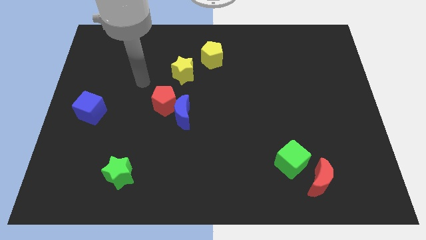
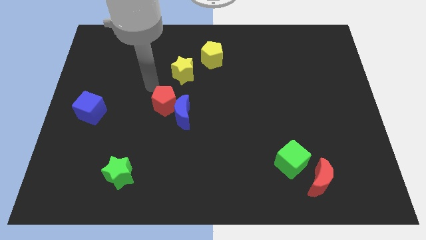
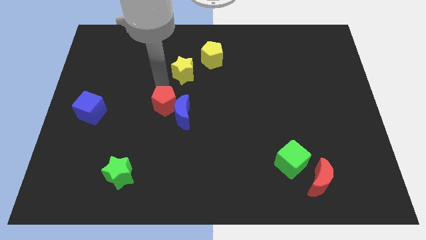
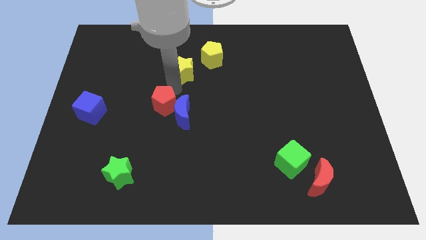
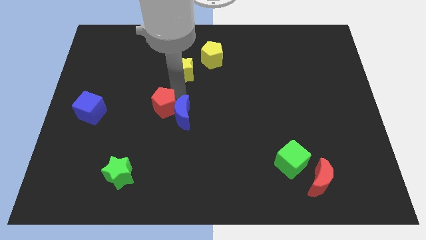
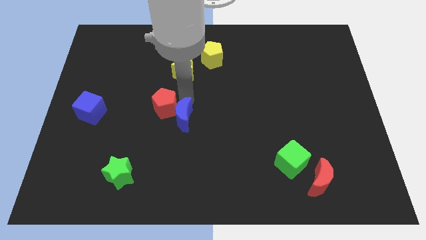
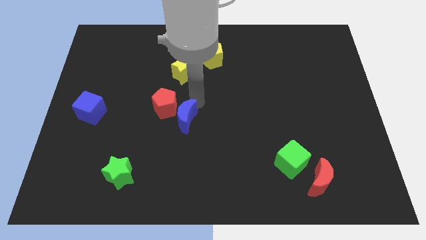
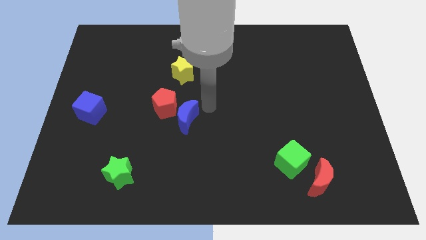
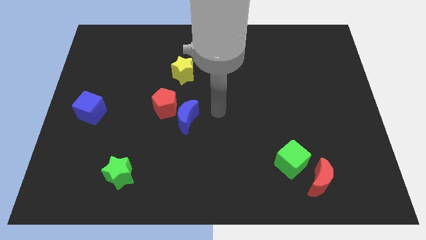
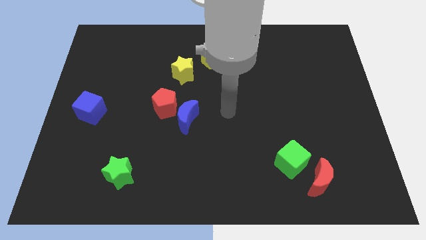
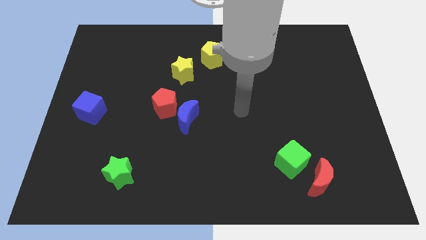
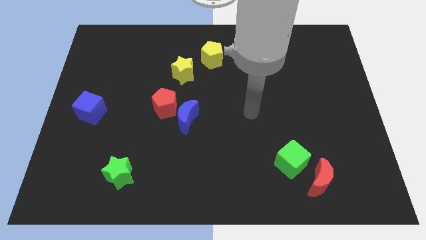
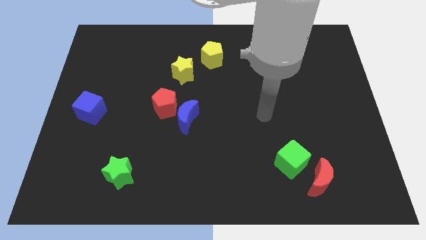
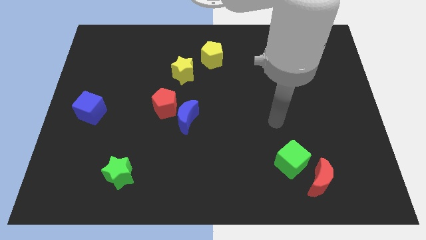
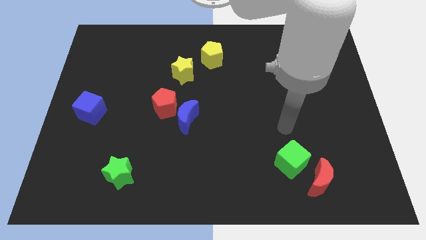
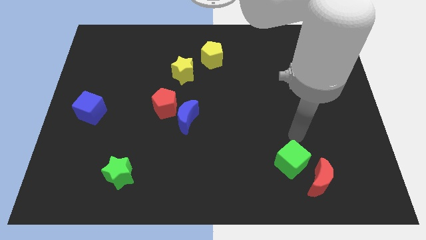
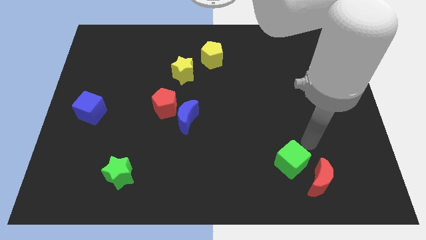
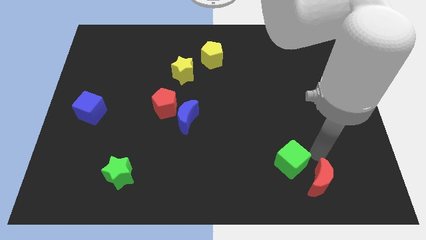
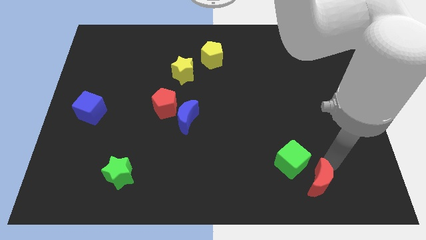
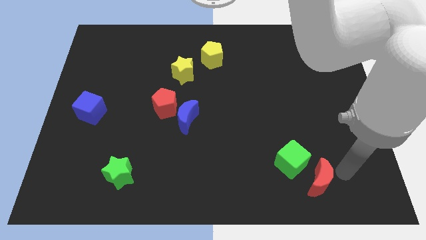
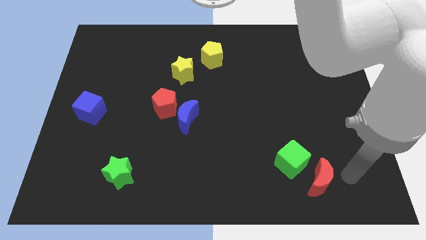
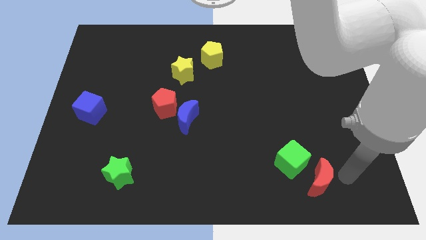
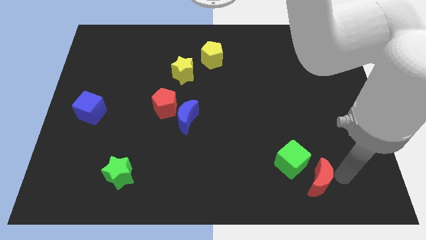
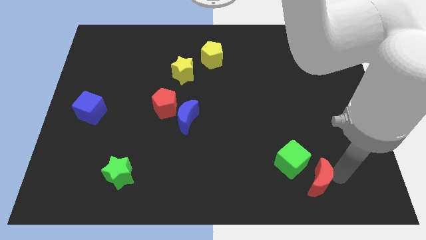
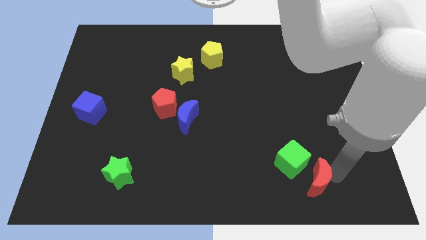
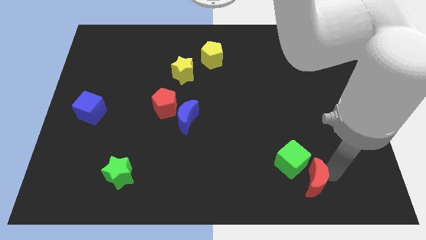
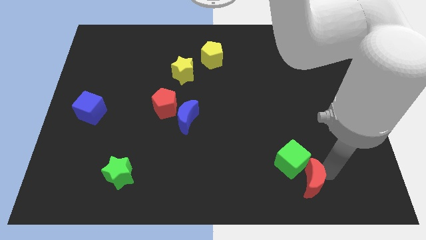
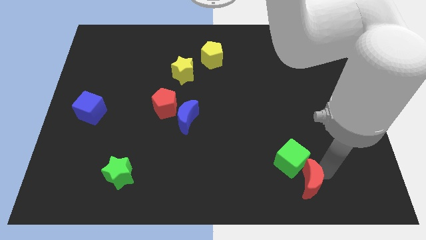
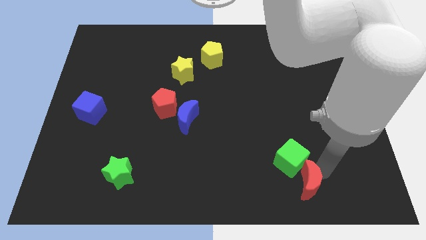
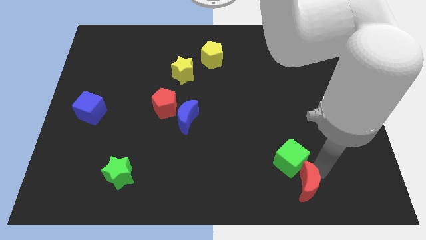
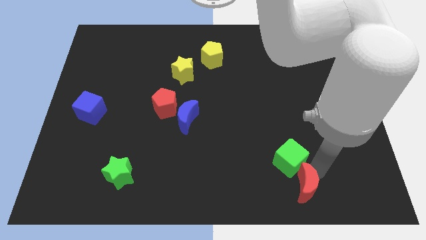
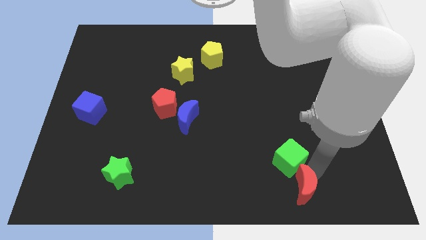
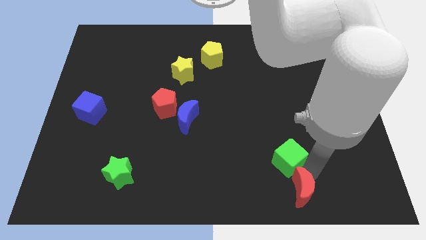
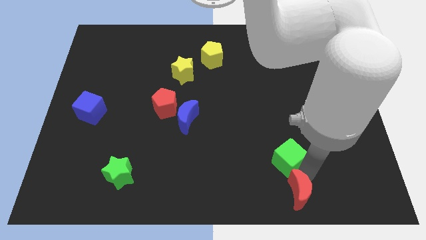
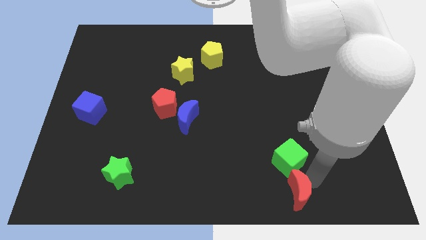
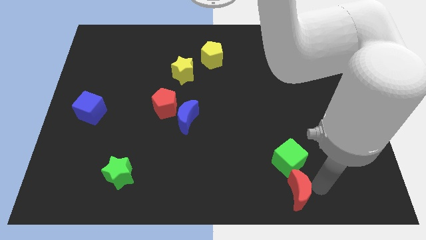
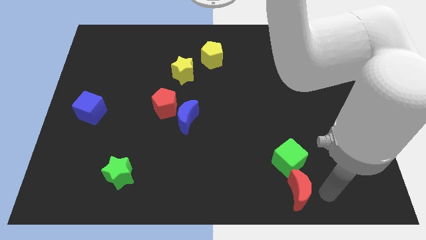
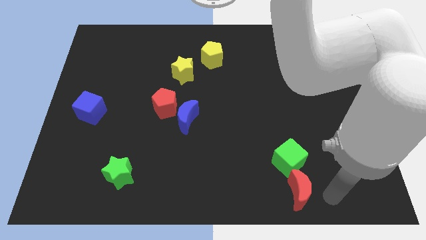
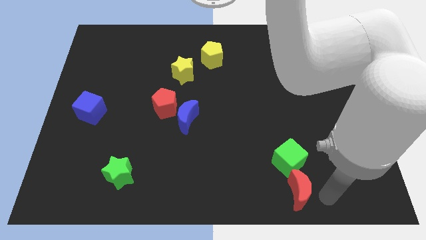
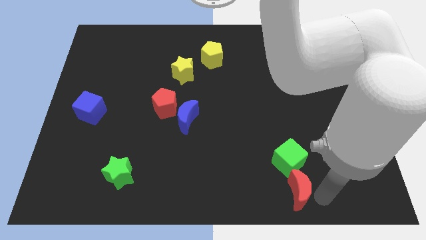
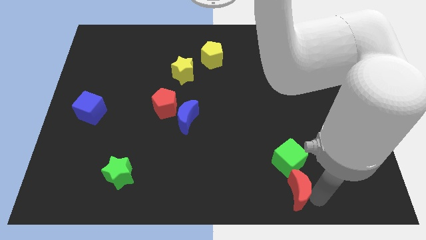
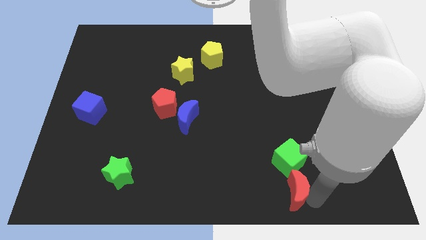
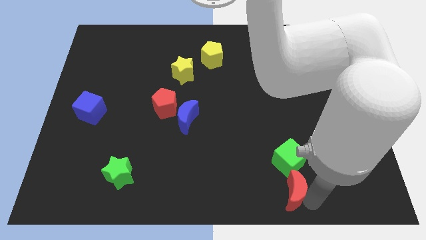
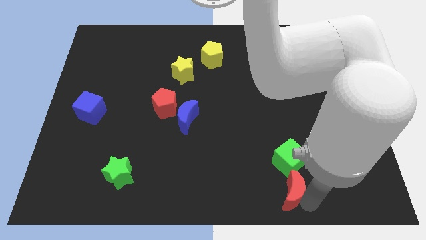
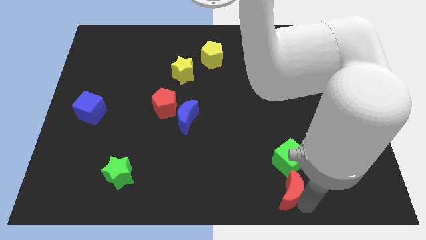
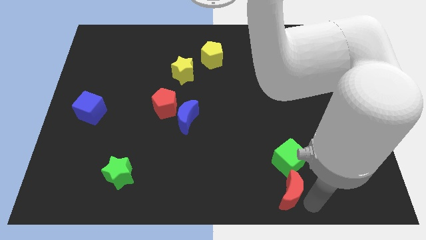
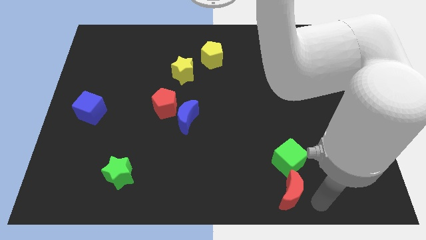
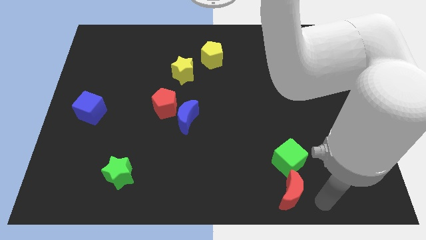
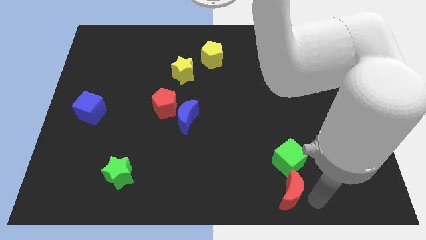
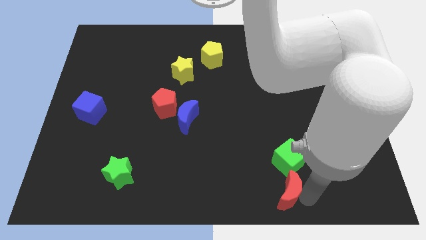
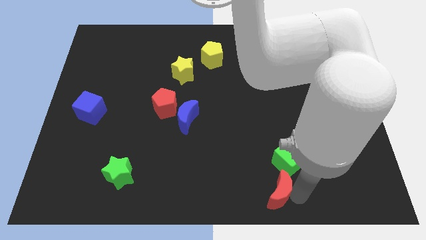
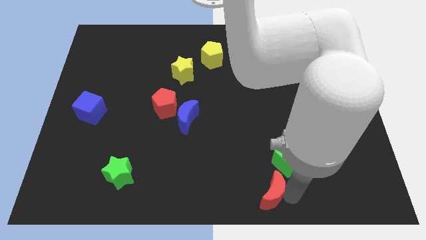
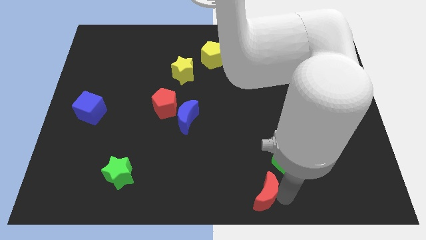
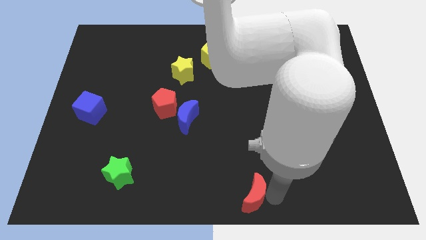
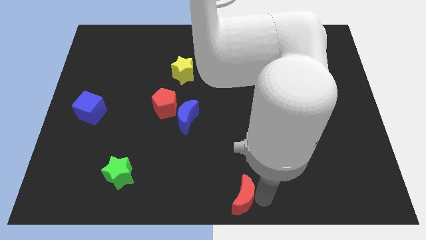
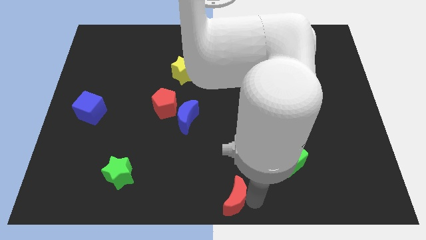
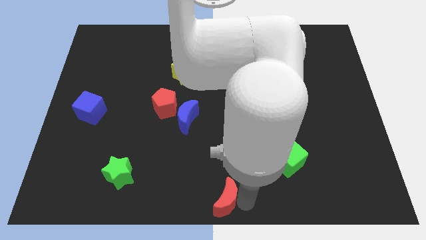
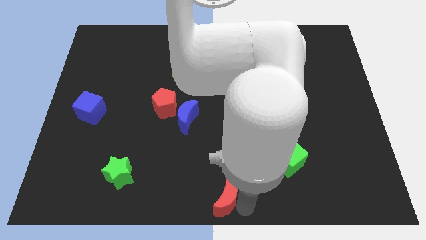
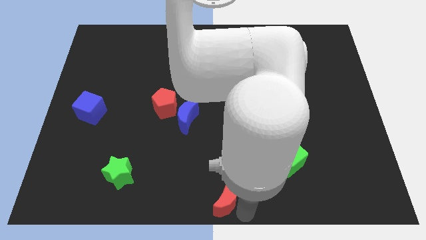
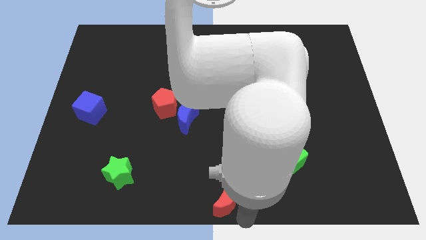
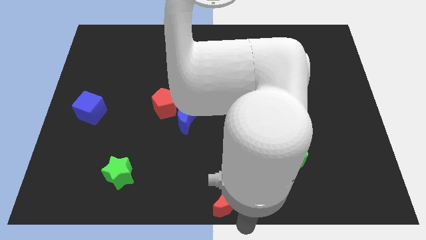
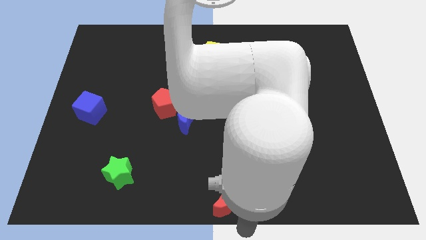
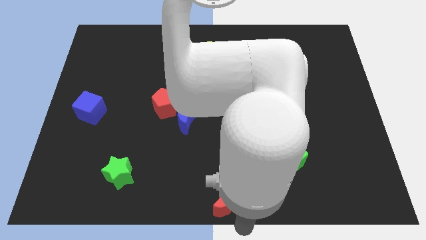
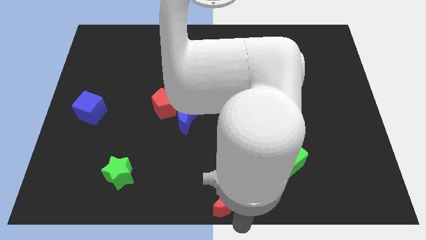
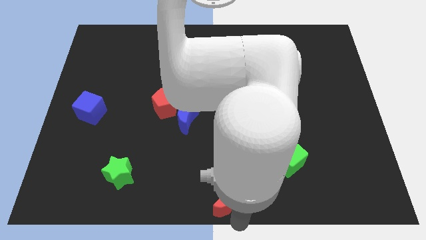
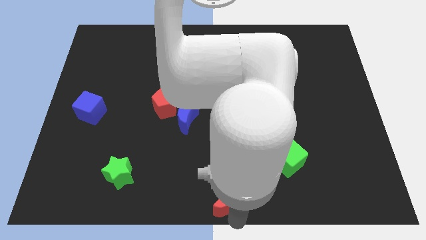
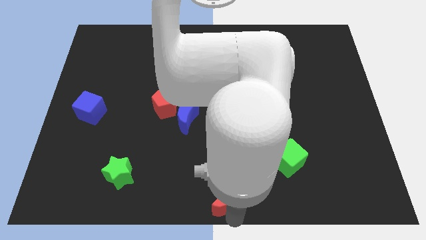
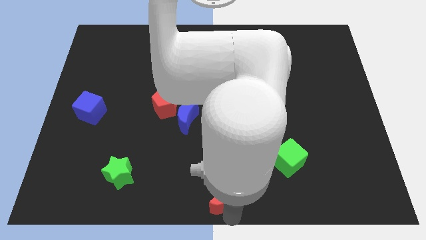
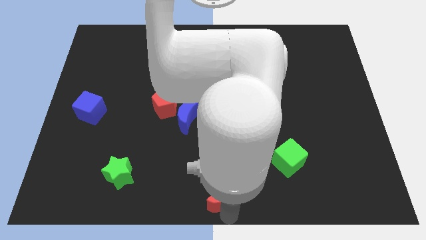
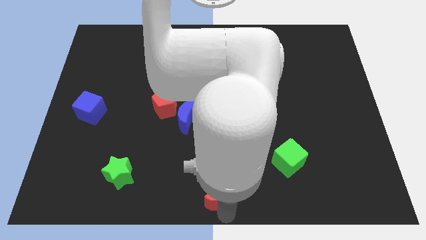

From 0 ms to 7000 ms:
slide the red moon to the left

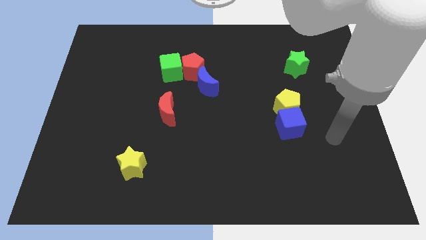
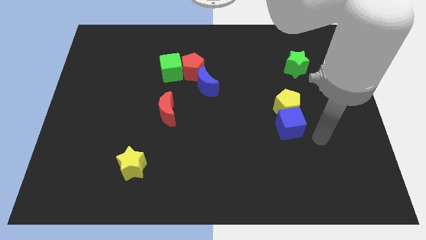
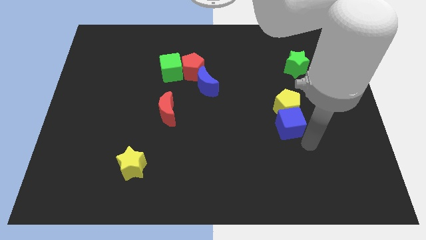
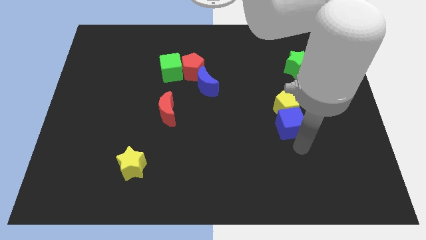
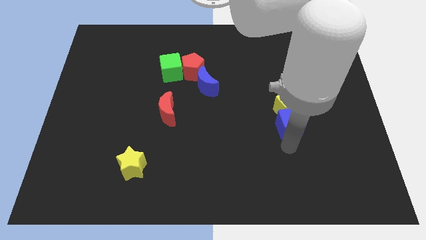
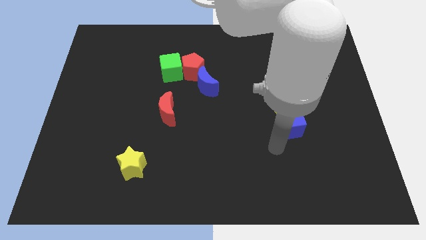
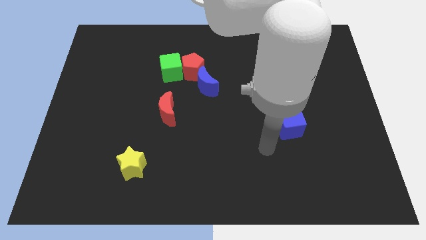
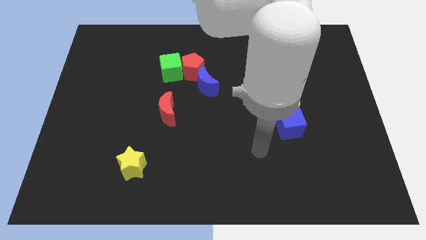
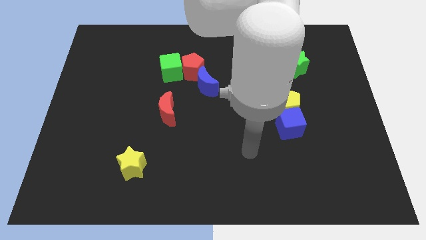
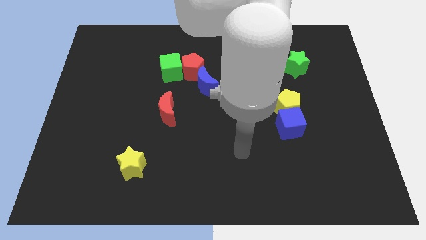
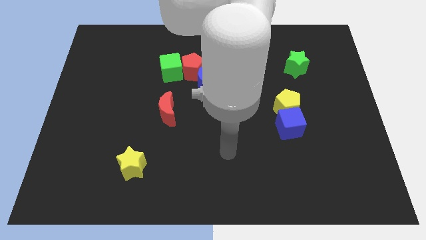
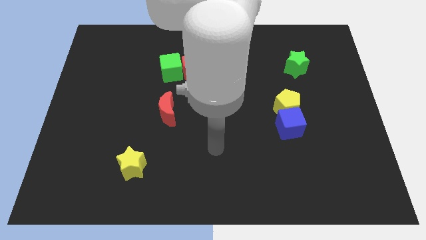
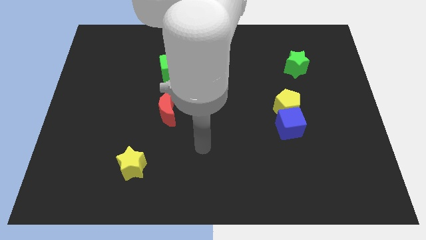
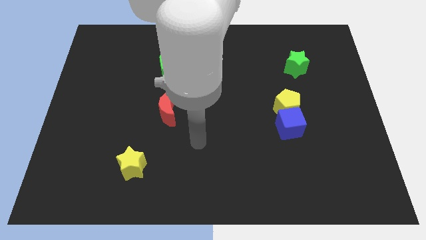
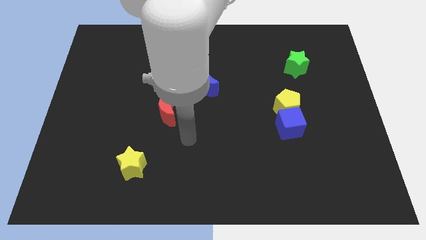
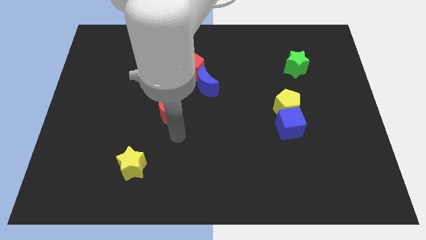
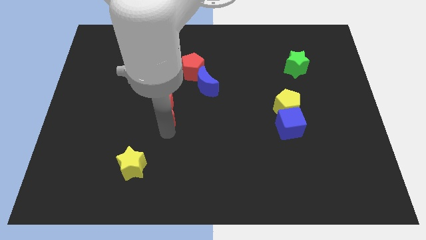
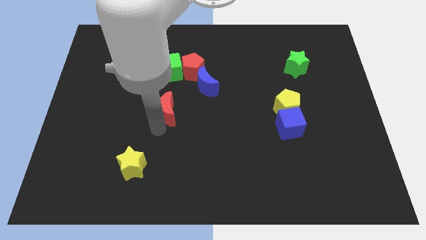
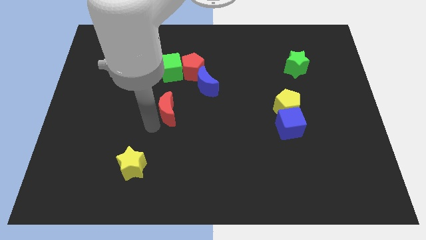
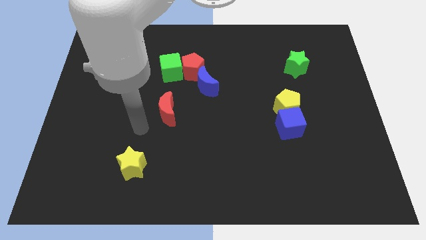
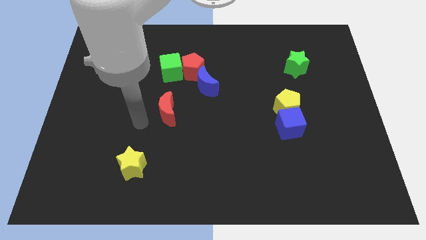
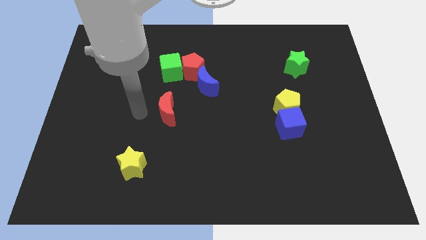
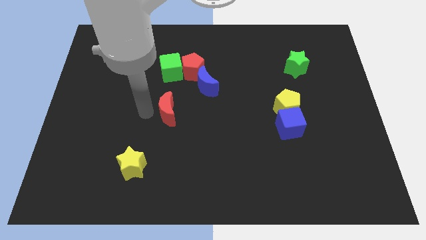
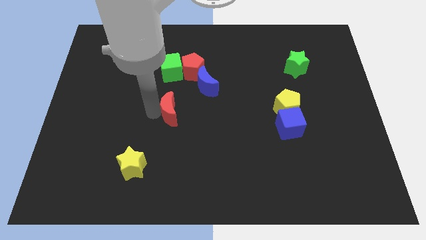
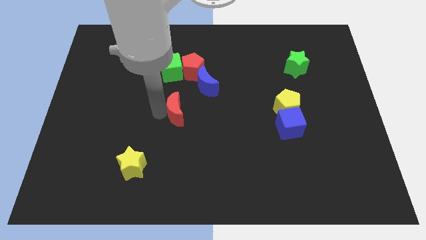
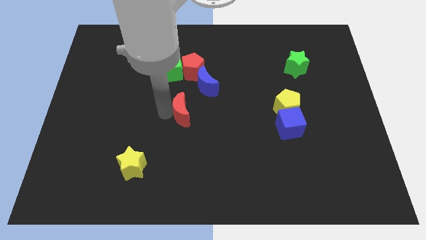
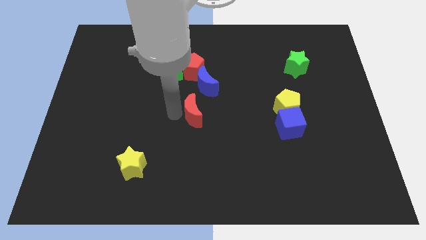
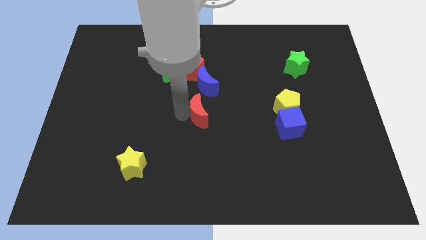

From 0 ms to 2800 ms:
slightly move the red moon to the right
